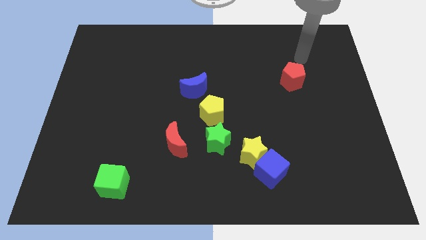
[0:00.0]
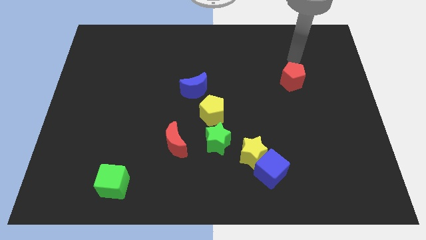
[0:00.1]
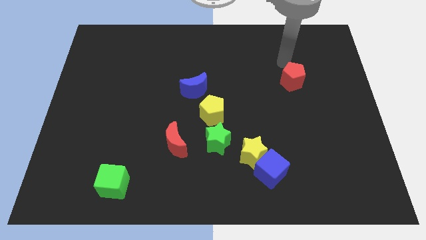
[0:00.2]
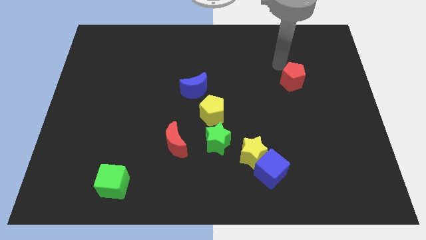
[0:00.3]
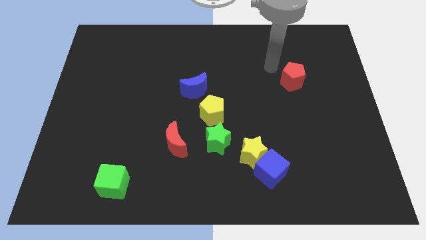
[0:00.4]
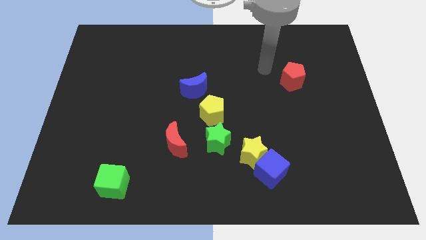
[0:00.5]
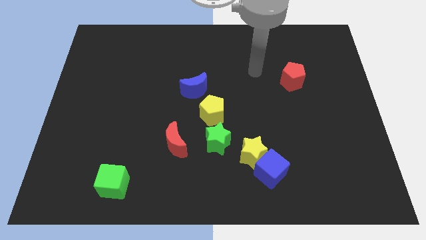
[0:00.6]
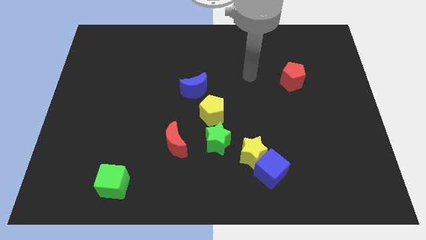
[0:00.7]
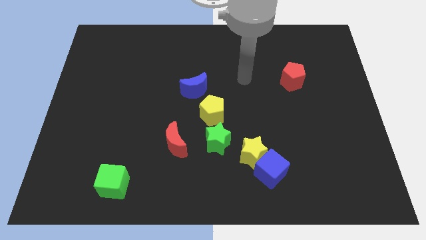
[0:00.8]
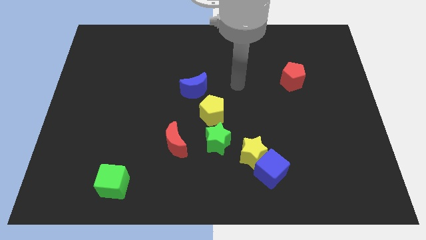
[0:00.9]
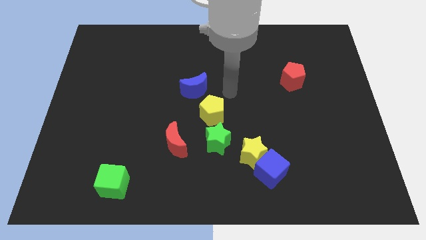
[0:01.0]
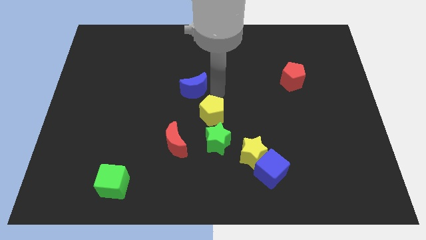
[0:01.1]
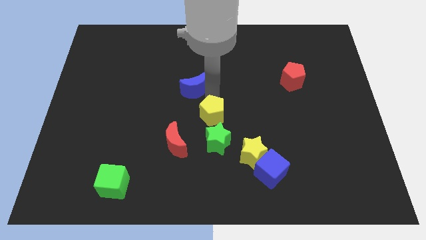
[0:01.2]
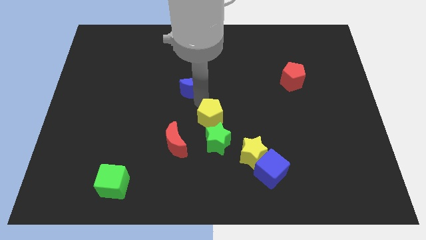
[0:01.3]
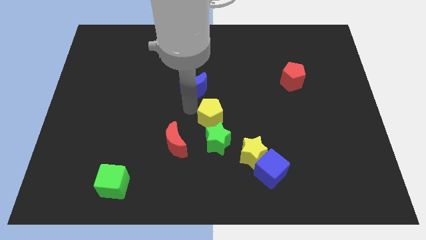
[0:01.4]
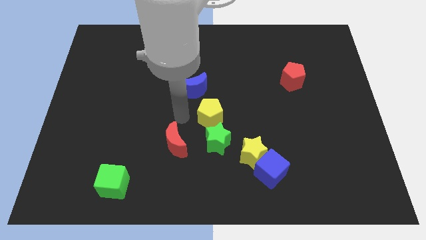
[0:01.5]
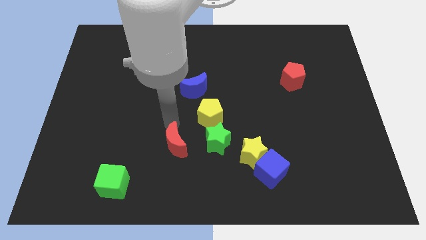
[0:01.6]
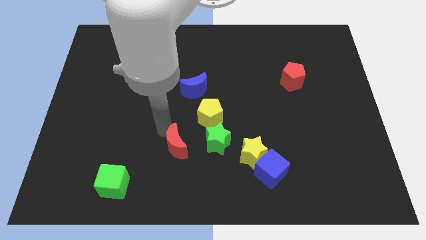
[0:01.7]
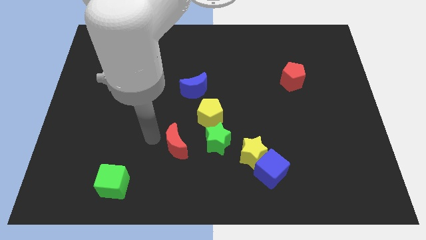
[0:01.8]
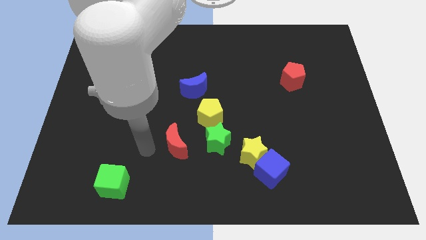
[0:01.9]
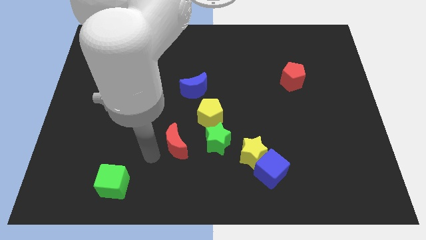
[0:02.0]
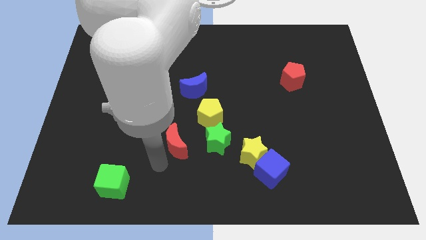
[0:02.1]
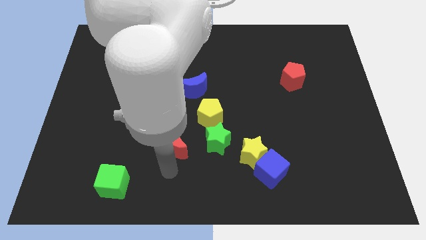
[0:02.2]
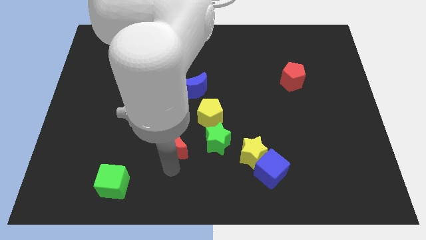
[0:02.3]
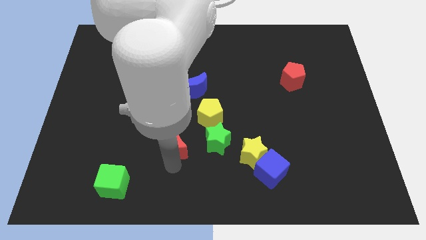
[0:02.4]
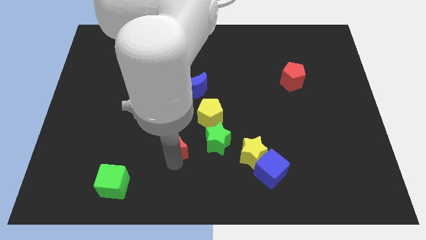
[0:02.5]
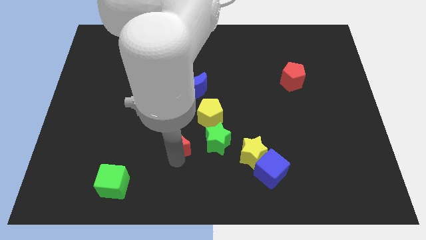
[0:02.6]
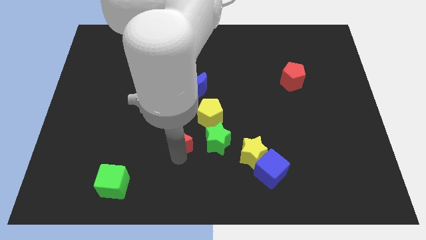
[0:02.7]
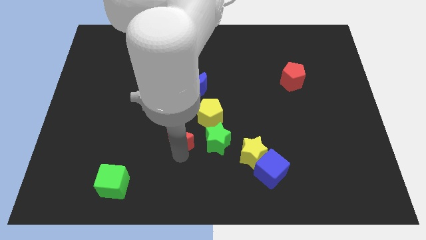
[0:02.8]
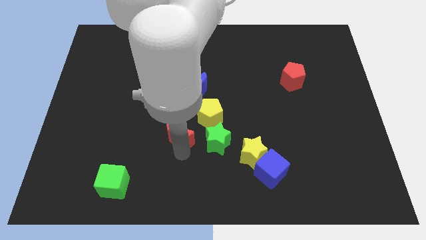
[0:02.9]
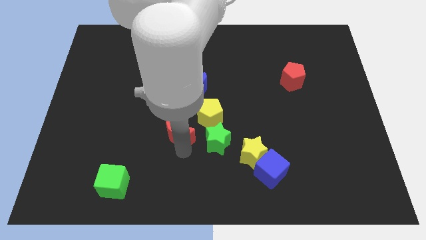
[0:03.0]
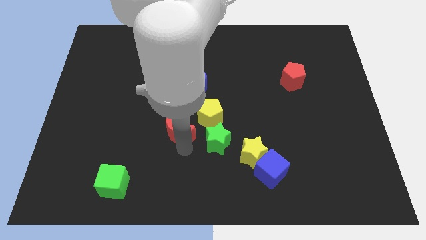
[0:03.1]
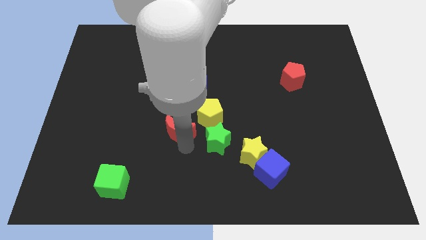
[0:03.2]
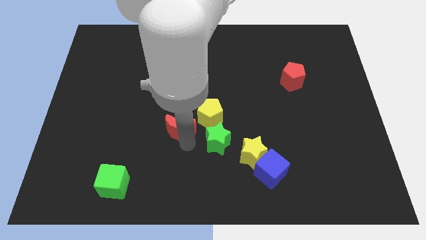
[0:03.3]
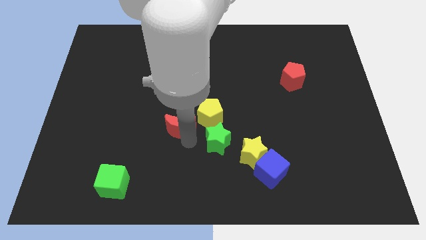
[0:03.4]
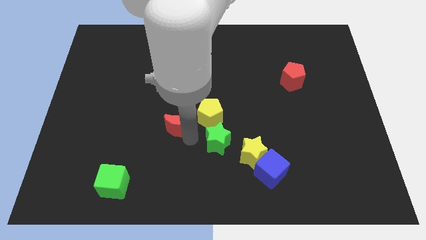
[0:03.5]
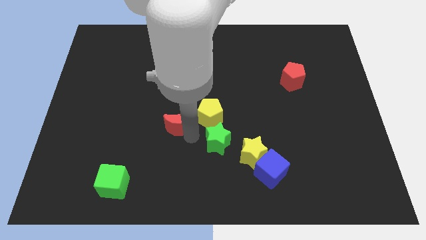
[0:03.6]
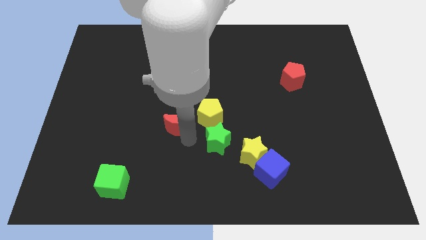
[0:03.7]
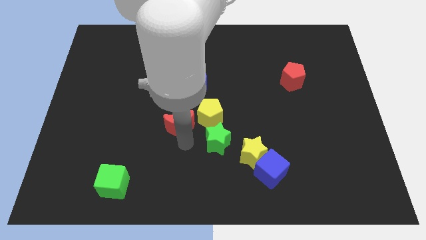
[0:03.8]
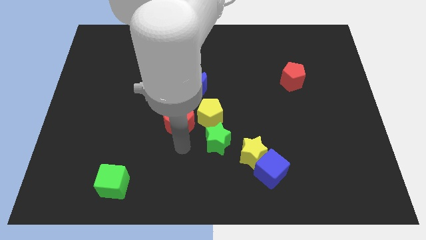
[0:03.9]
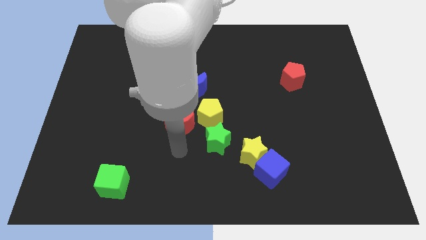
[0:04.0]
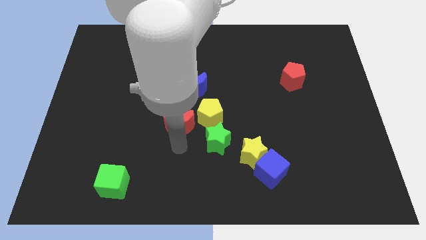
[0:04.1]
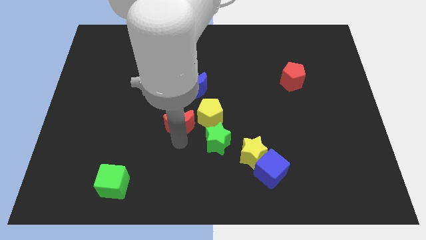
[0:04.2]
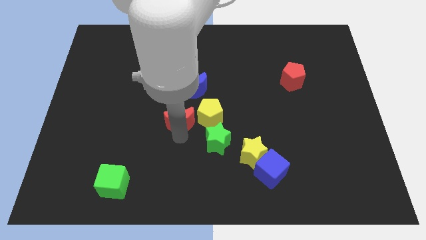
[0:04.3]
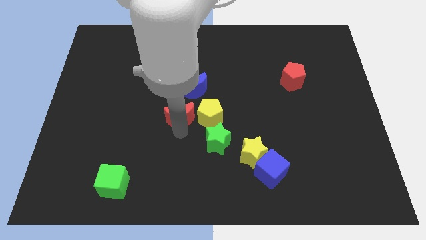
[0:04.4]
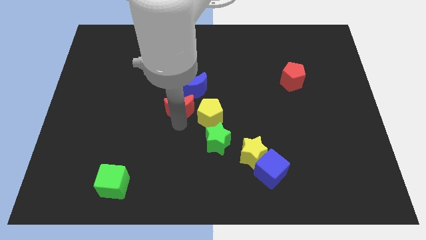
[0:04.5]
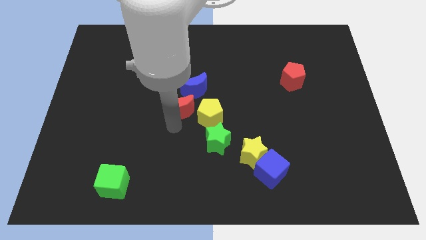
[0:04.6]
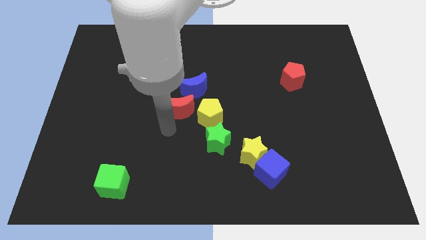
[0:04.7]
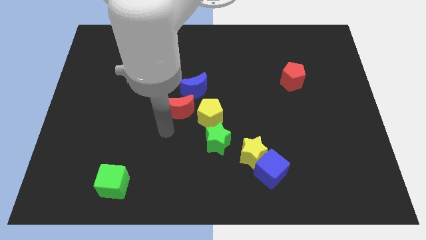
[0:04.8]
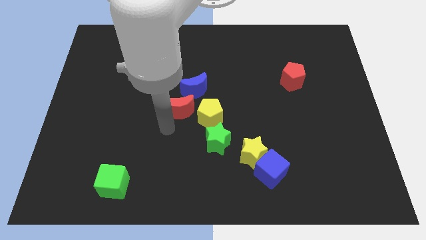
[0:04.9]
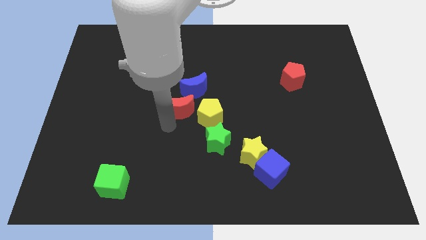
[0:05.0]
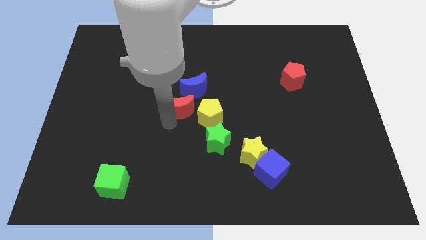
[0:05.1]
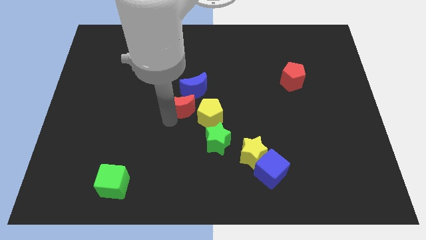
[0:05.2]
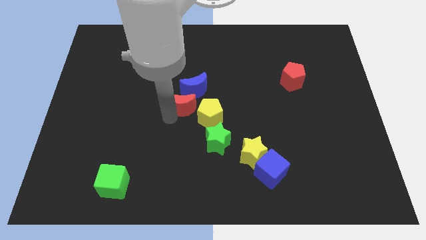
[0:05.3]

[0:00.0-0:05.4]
move the red moon next to the blue moon

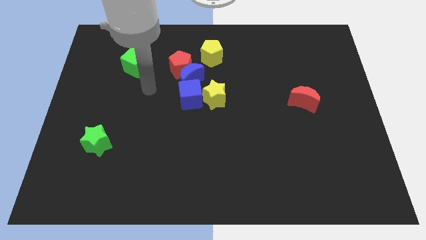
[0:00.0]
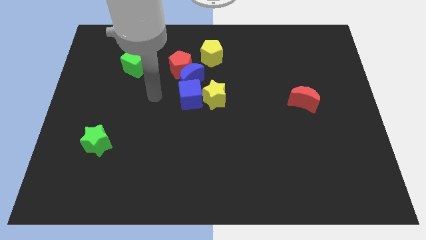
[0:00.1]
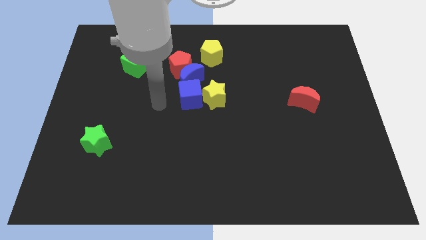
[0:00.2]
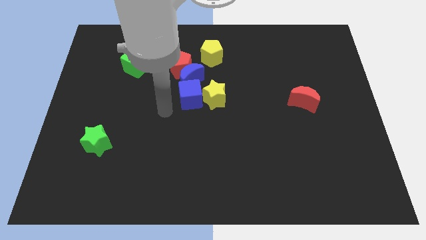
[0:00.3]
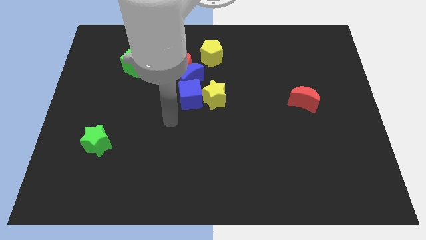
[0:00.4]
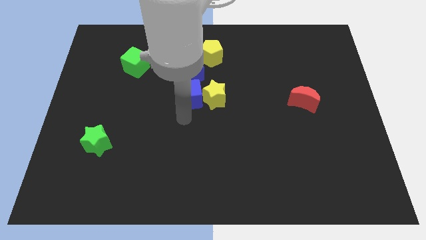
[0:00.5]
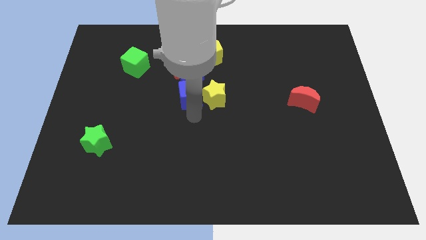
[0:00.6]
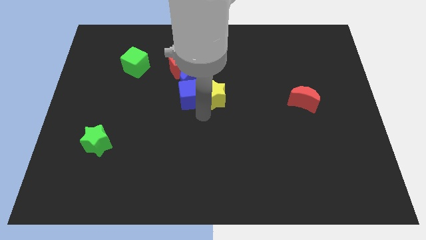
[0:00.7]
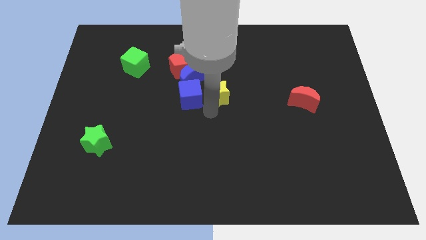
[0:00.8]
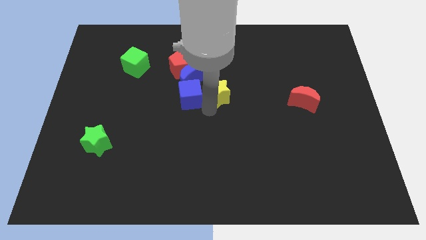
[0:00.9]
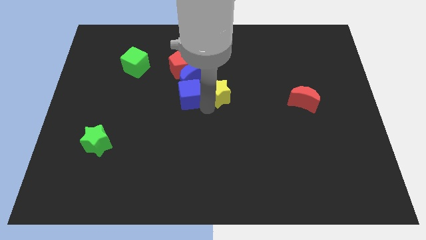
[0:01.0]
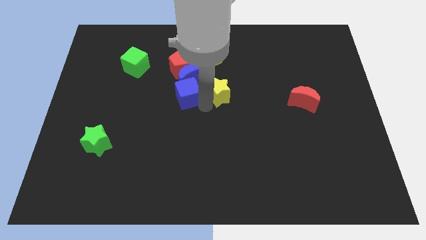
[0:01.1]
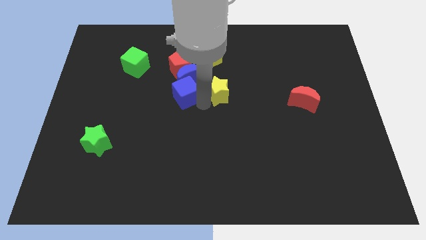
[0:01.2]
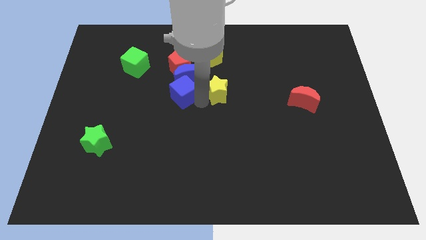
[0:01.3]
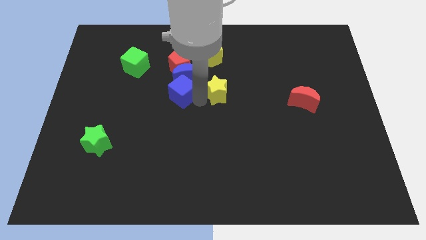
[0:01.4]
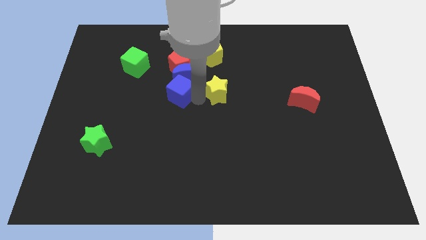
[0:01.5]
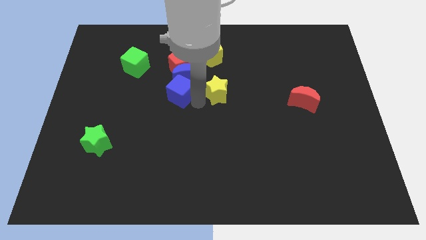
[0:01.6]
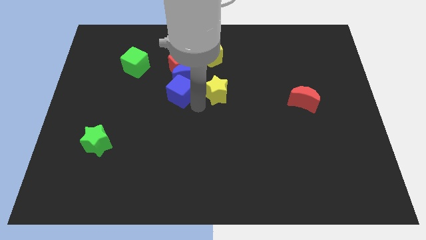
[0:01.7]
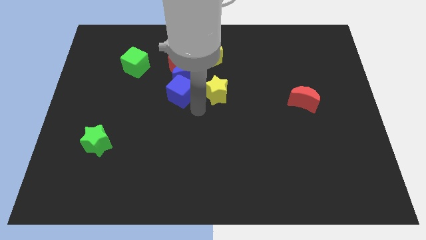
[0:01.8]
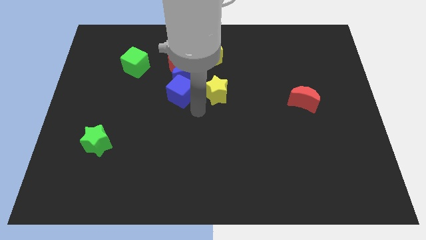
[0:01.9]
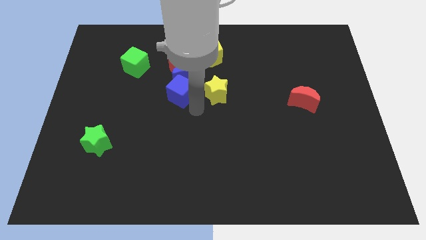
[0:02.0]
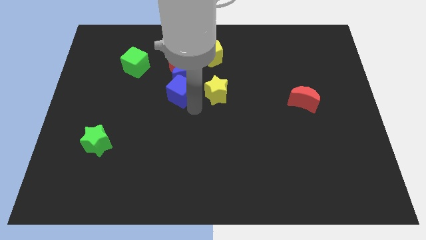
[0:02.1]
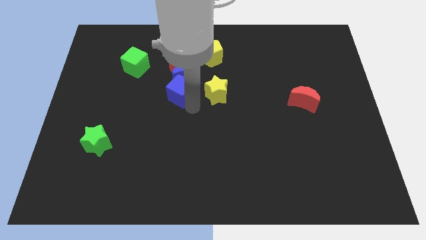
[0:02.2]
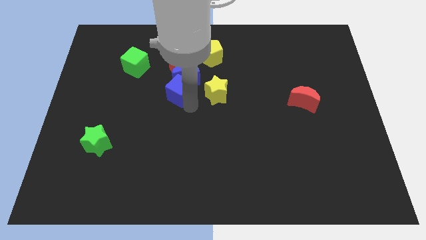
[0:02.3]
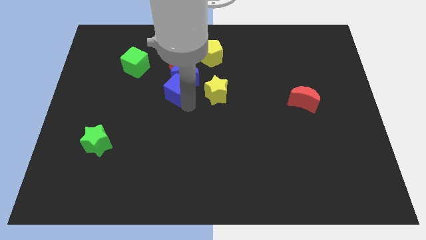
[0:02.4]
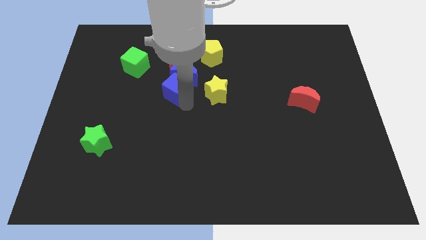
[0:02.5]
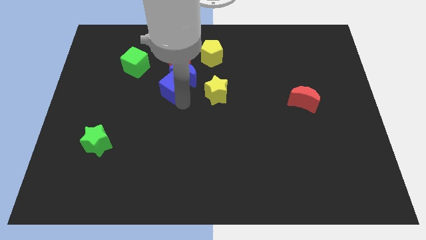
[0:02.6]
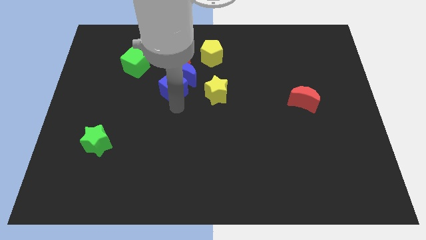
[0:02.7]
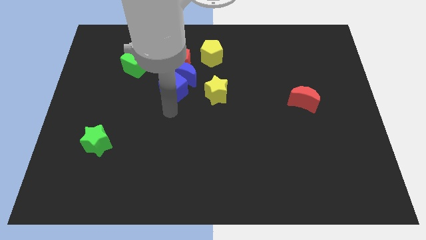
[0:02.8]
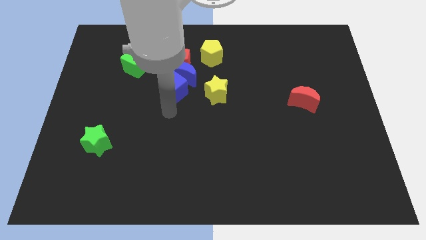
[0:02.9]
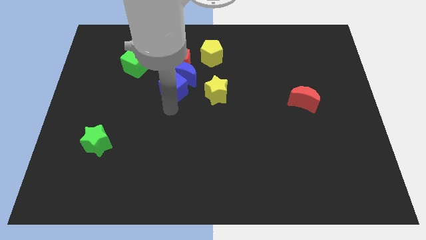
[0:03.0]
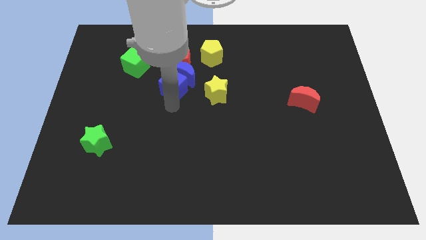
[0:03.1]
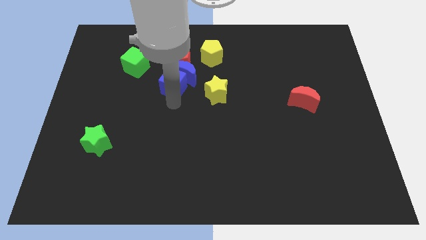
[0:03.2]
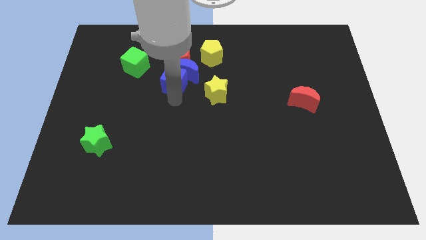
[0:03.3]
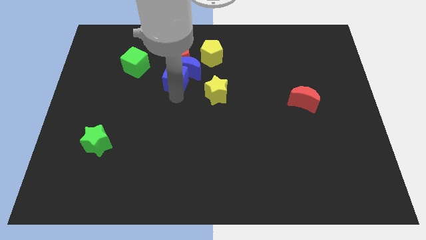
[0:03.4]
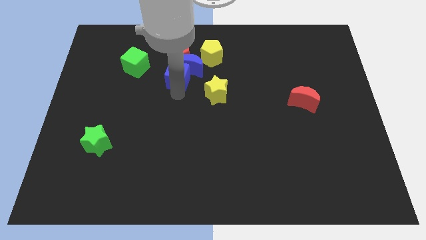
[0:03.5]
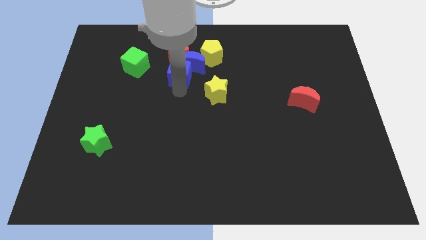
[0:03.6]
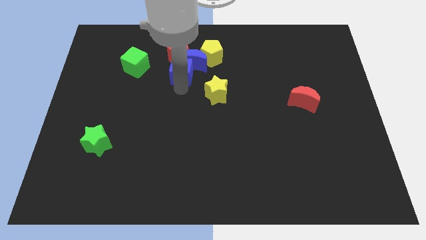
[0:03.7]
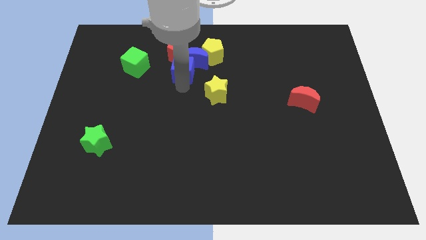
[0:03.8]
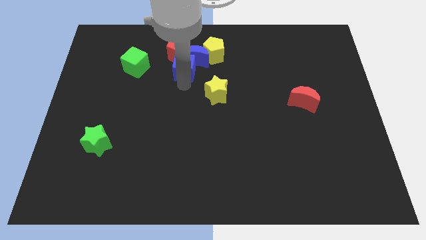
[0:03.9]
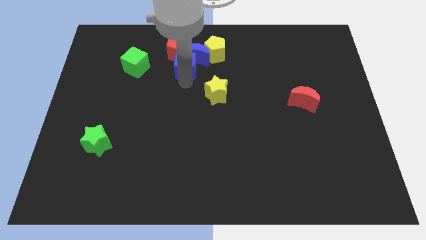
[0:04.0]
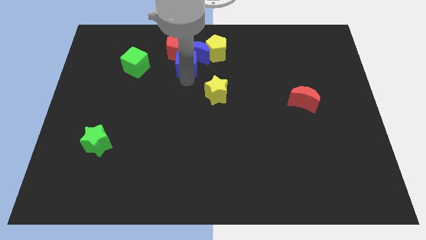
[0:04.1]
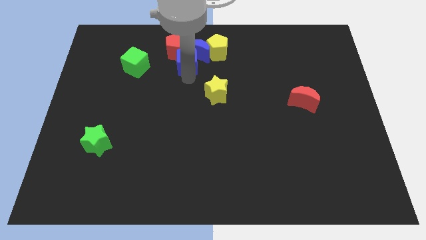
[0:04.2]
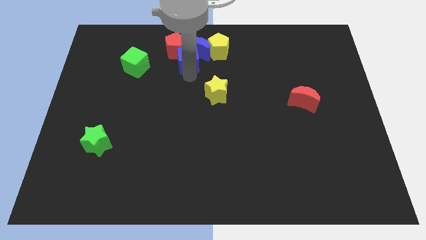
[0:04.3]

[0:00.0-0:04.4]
slide the blue cube close to the red pentagon
